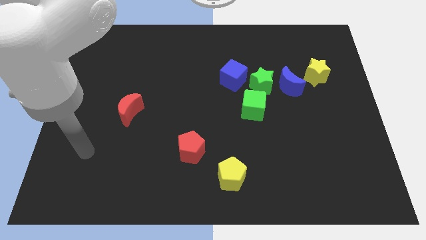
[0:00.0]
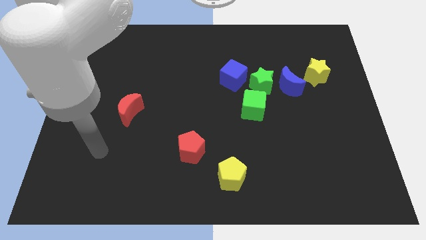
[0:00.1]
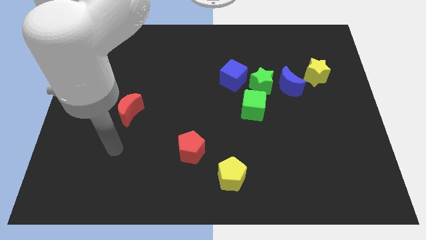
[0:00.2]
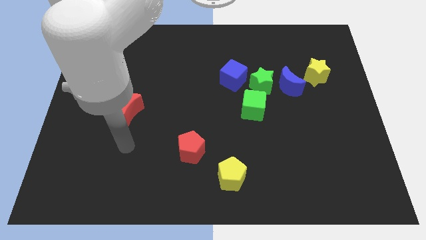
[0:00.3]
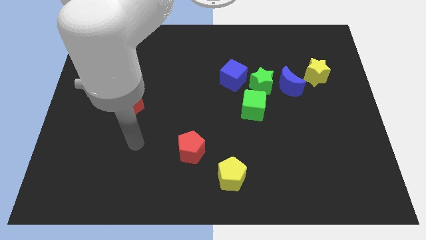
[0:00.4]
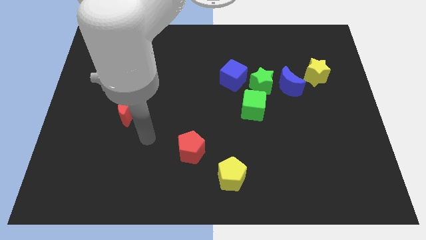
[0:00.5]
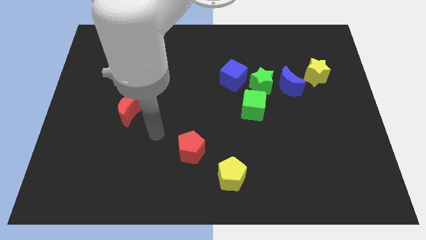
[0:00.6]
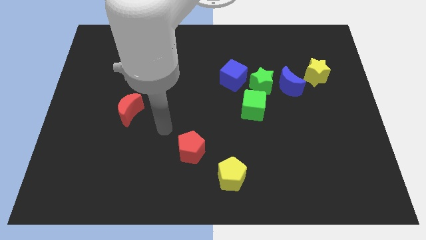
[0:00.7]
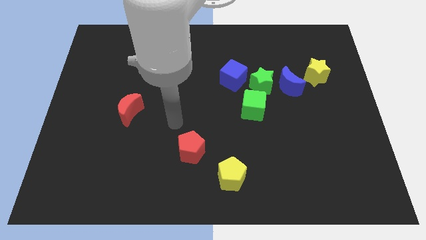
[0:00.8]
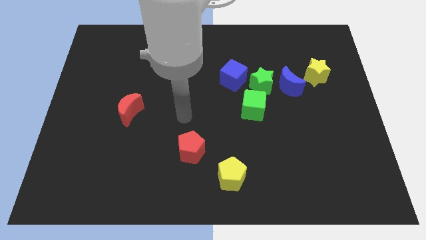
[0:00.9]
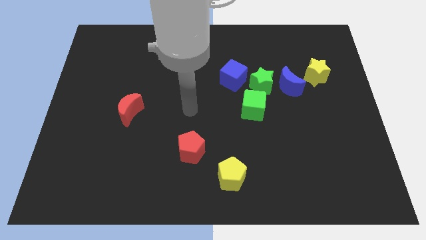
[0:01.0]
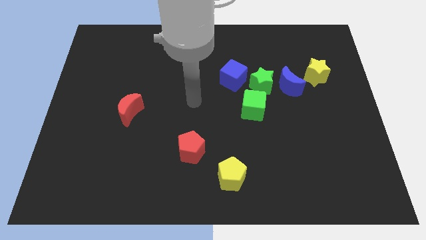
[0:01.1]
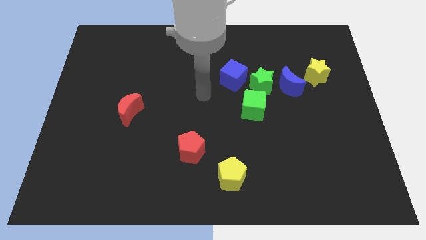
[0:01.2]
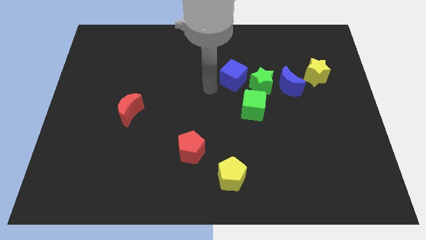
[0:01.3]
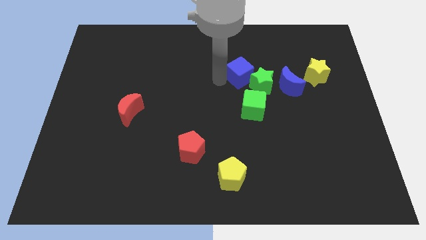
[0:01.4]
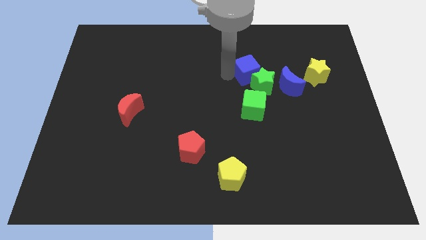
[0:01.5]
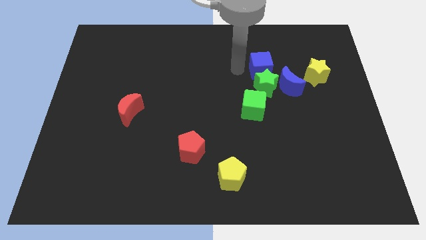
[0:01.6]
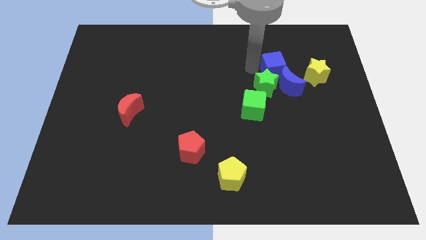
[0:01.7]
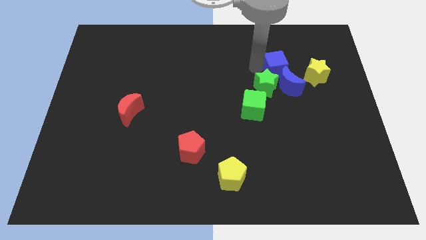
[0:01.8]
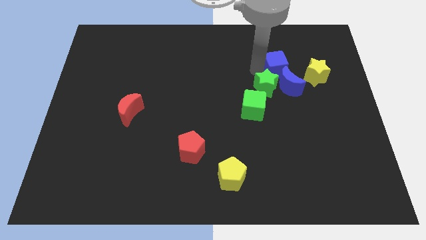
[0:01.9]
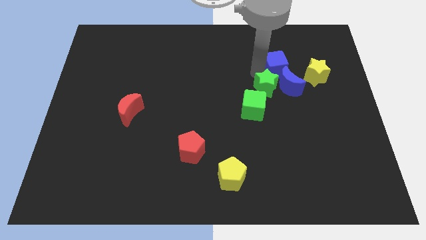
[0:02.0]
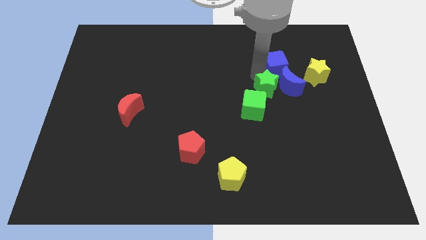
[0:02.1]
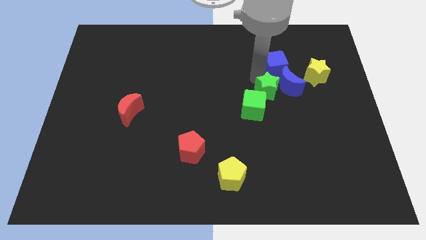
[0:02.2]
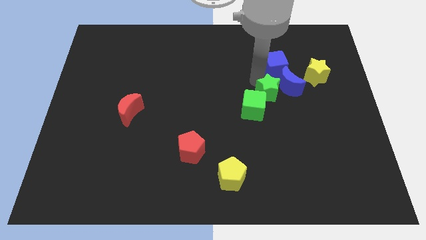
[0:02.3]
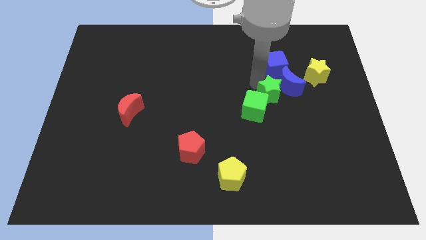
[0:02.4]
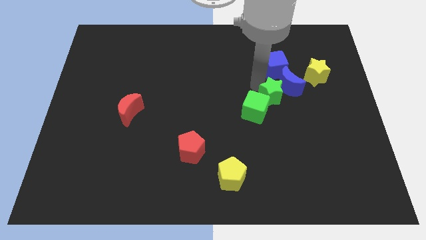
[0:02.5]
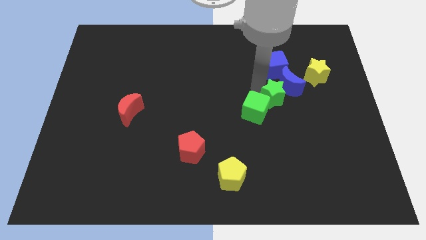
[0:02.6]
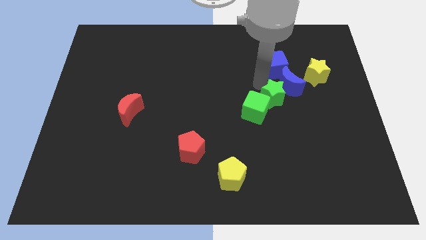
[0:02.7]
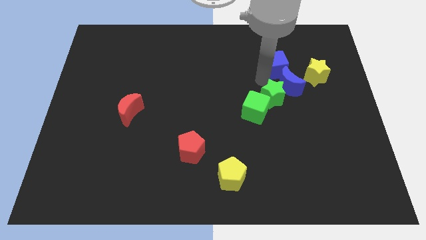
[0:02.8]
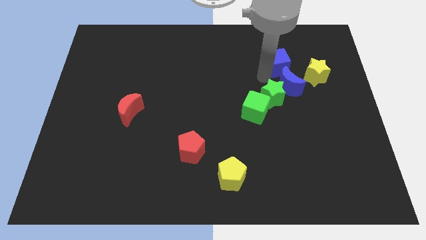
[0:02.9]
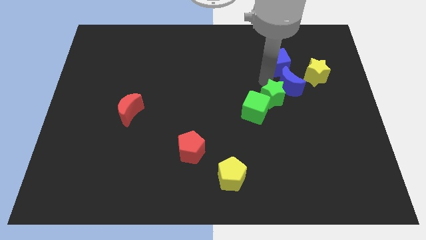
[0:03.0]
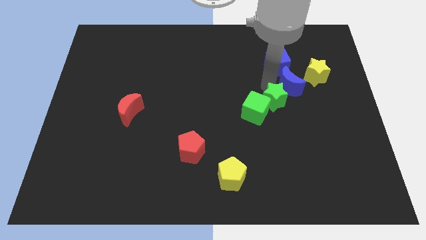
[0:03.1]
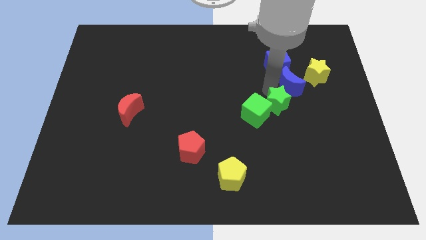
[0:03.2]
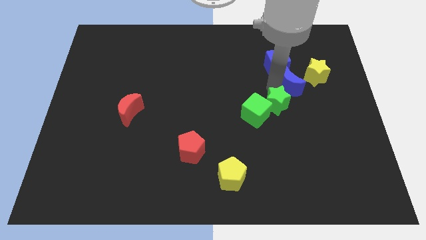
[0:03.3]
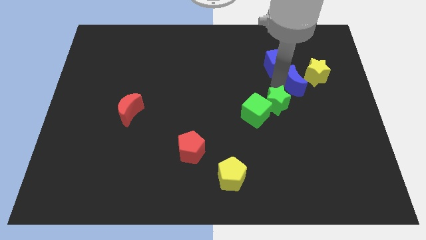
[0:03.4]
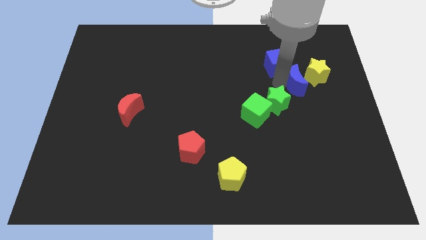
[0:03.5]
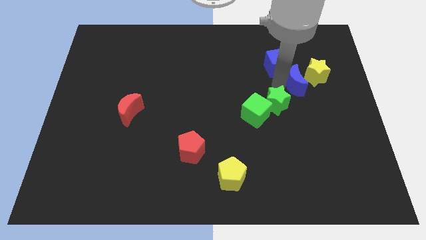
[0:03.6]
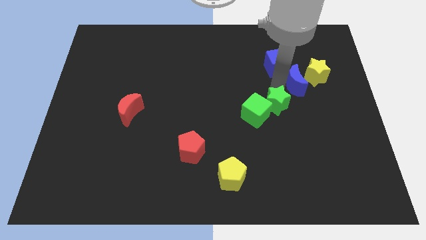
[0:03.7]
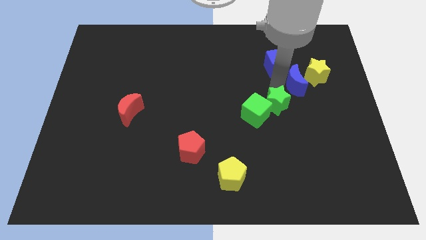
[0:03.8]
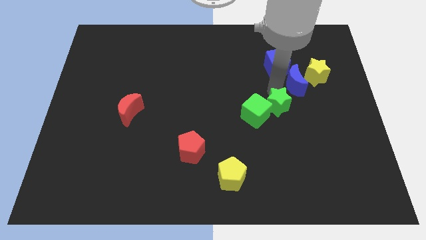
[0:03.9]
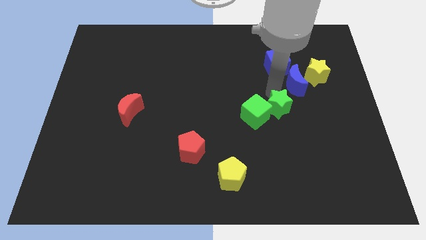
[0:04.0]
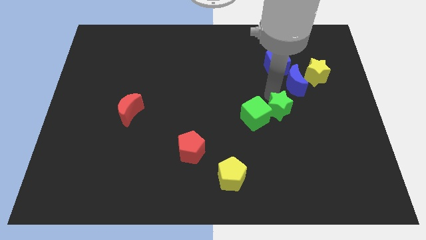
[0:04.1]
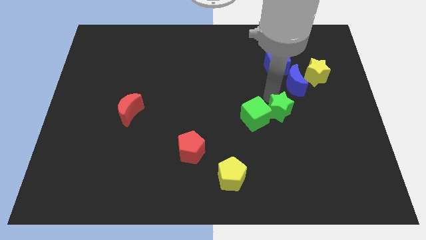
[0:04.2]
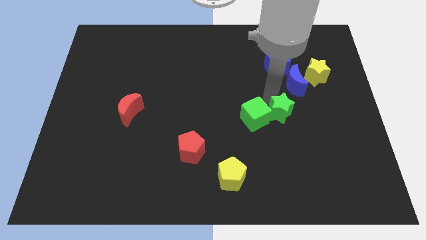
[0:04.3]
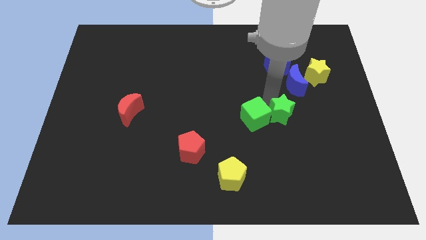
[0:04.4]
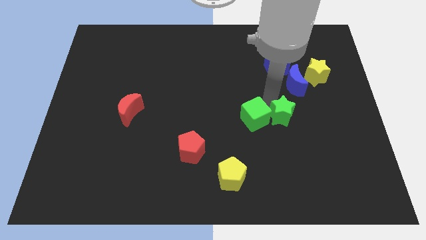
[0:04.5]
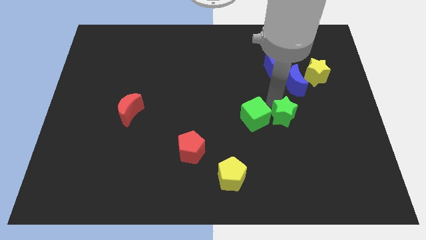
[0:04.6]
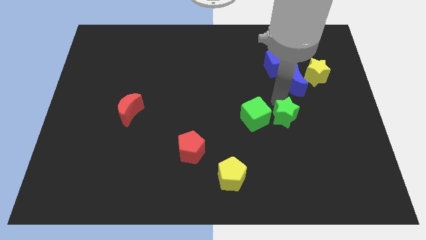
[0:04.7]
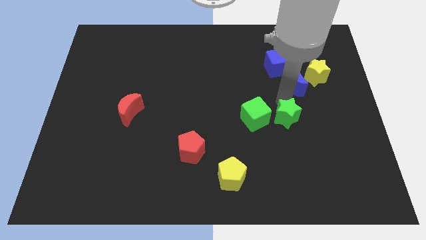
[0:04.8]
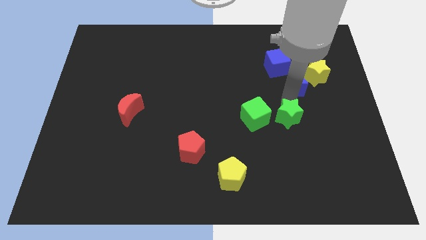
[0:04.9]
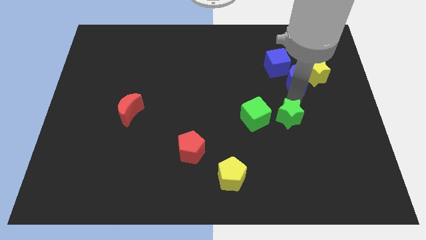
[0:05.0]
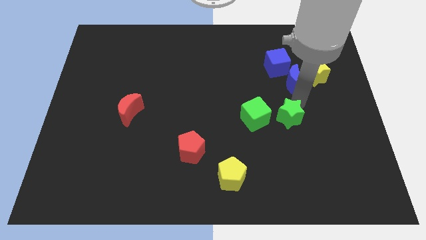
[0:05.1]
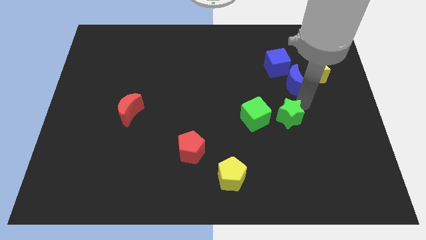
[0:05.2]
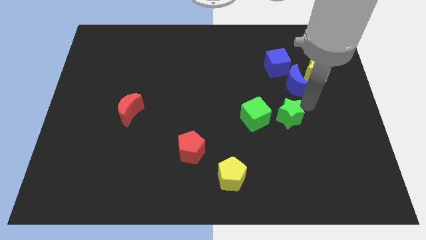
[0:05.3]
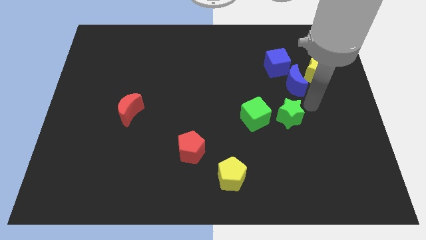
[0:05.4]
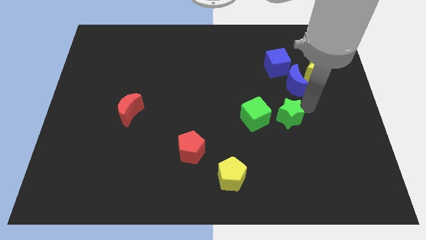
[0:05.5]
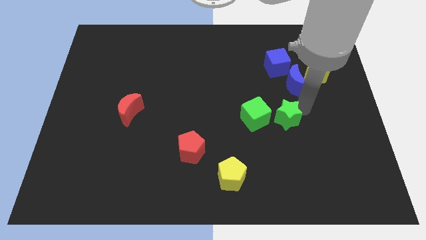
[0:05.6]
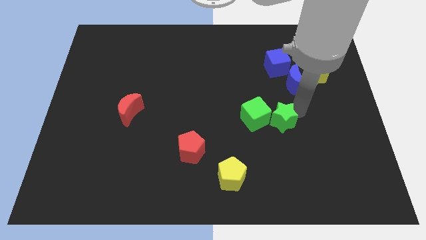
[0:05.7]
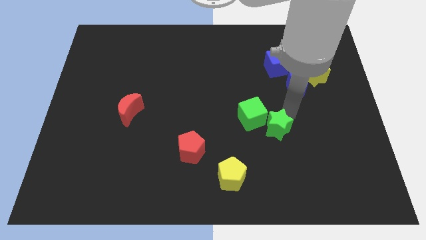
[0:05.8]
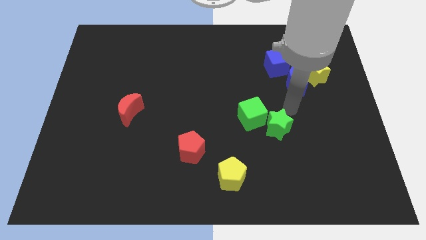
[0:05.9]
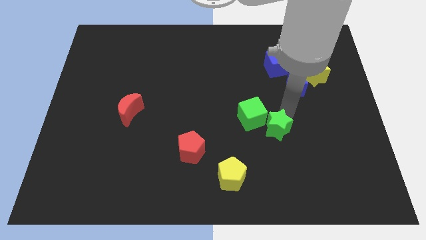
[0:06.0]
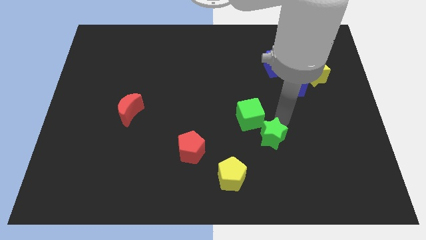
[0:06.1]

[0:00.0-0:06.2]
push the green star to the bottom side of the green cube

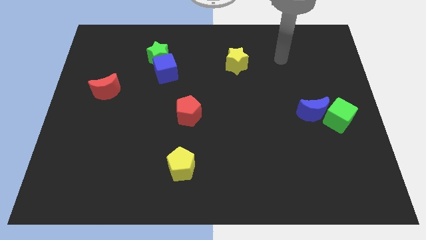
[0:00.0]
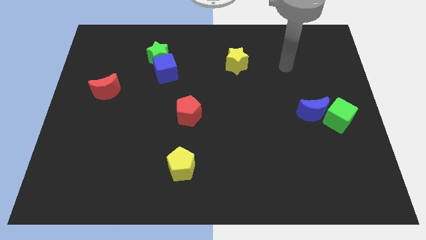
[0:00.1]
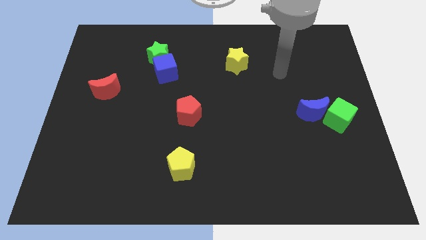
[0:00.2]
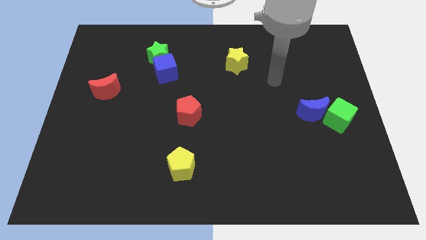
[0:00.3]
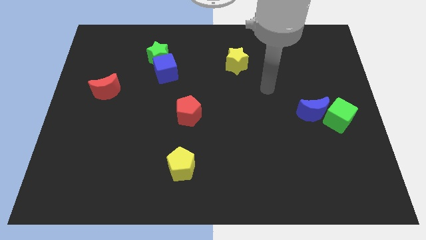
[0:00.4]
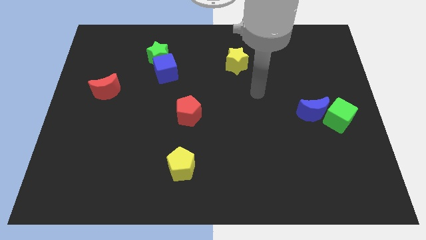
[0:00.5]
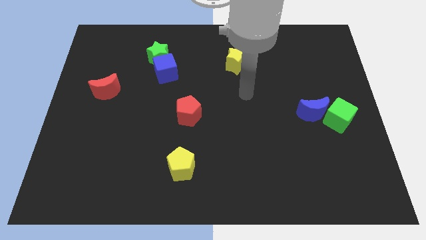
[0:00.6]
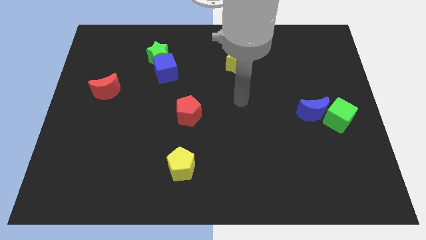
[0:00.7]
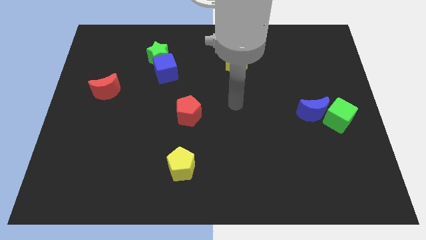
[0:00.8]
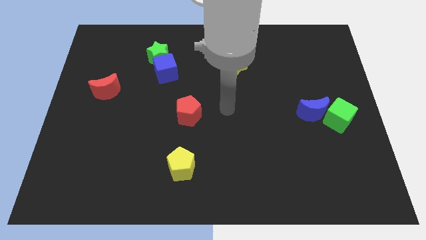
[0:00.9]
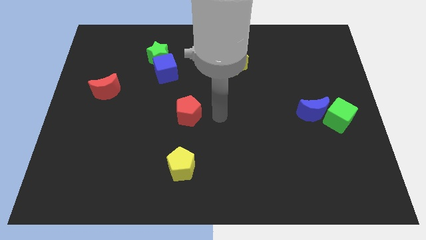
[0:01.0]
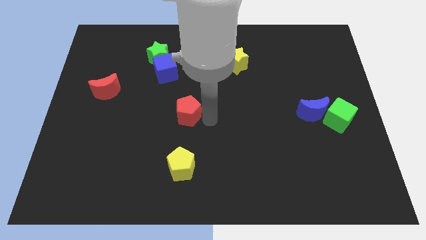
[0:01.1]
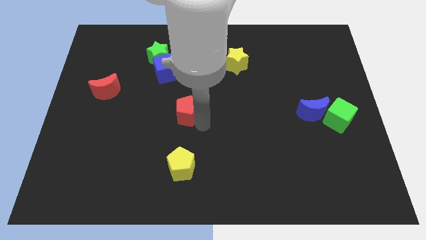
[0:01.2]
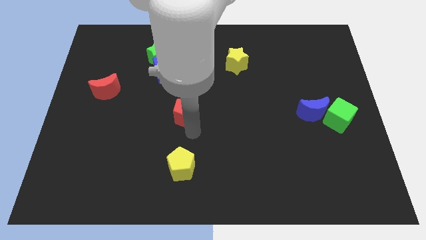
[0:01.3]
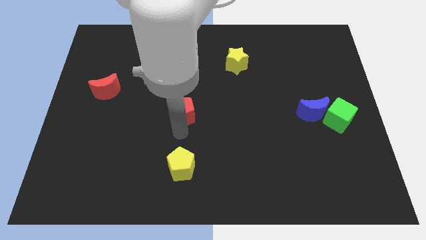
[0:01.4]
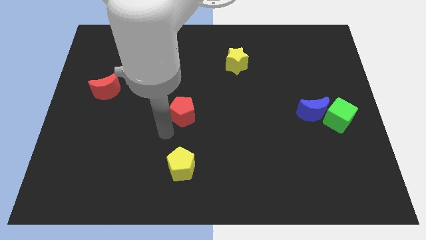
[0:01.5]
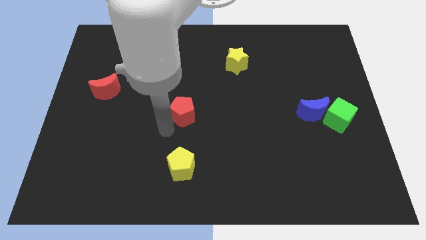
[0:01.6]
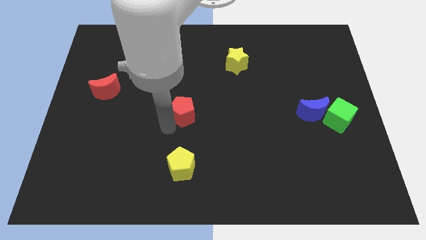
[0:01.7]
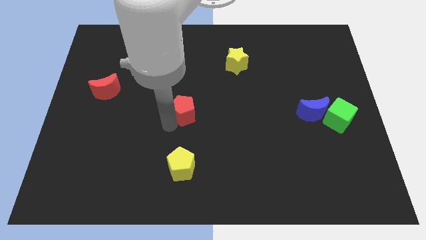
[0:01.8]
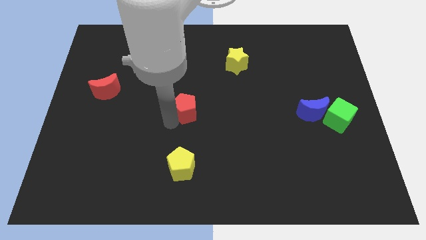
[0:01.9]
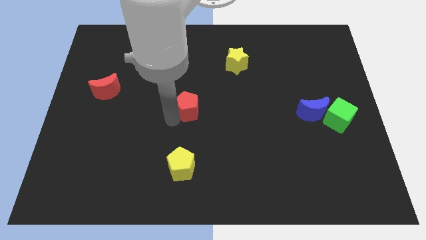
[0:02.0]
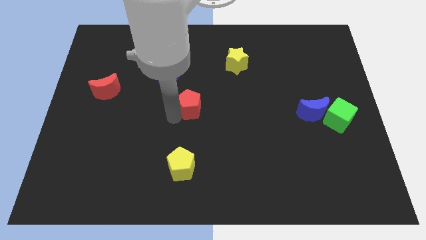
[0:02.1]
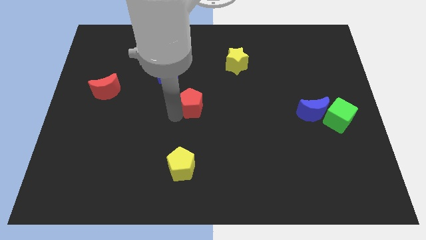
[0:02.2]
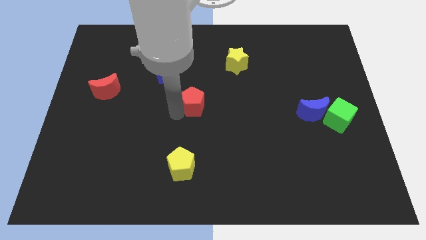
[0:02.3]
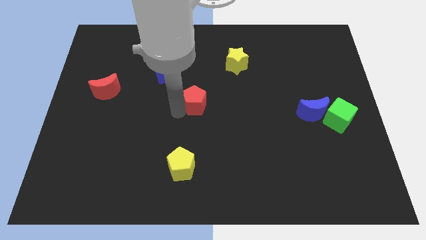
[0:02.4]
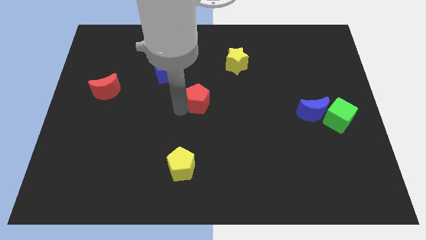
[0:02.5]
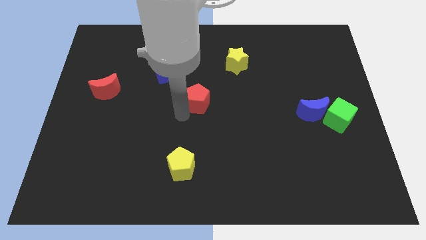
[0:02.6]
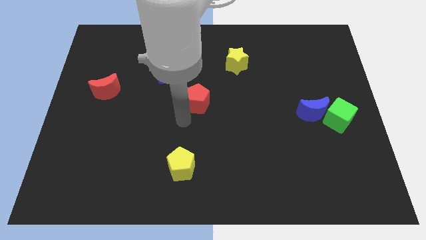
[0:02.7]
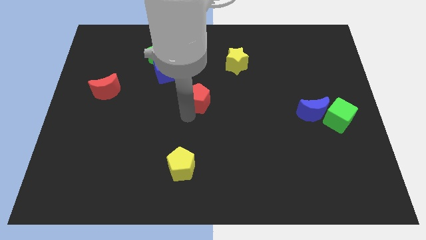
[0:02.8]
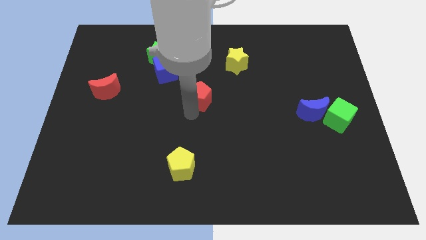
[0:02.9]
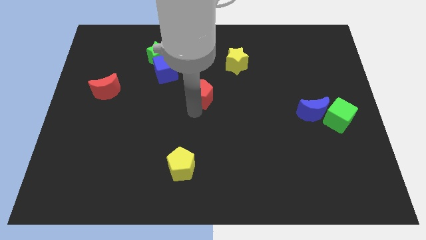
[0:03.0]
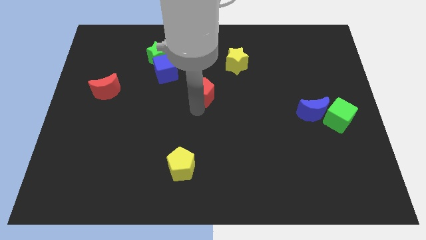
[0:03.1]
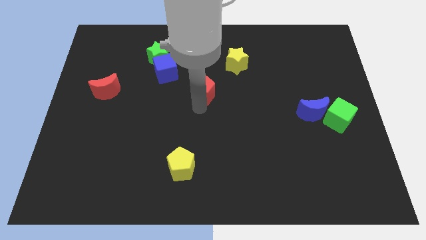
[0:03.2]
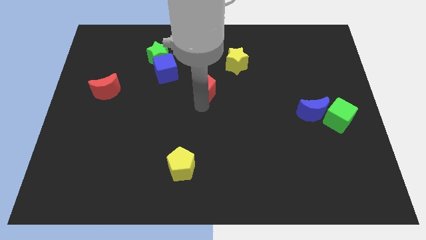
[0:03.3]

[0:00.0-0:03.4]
push the red pentagon diagonally down and to the left of the yellow star
